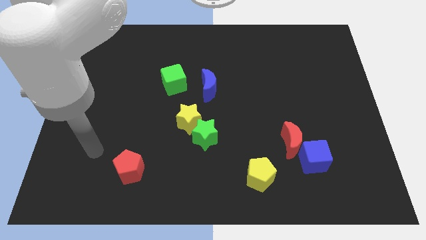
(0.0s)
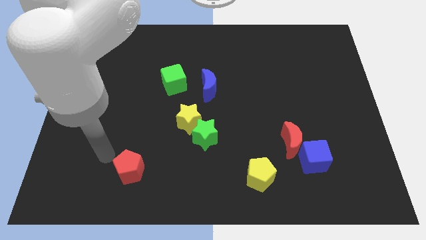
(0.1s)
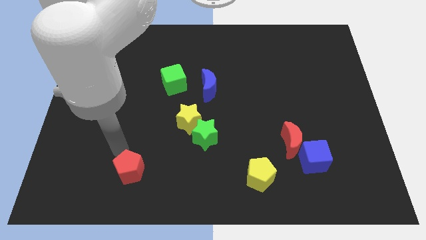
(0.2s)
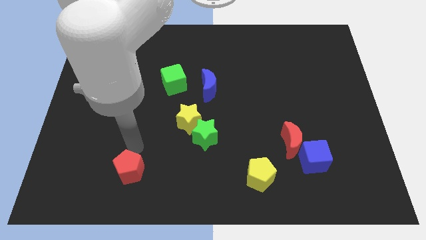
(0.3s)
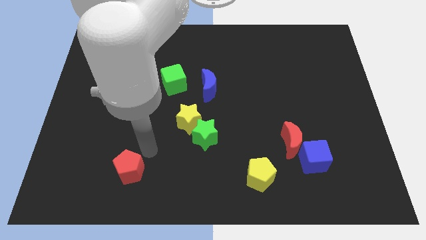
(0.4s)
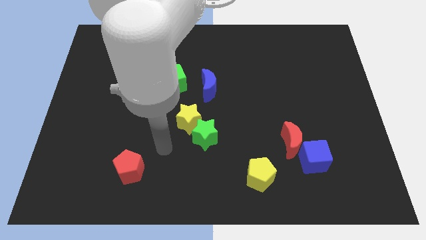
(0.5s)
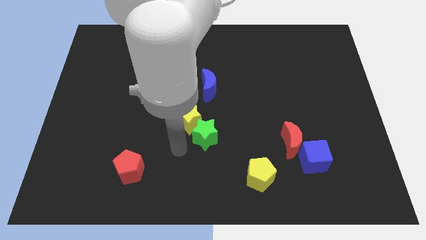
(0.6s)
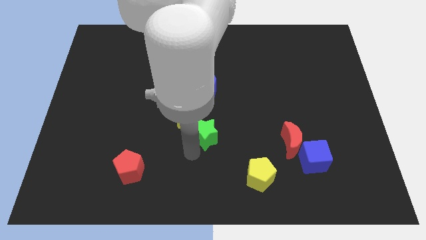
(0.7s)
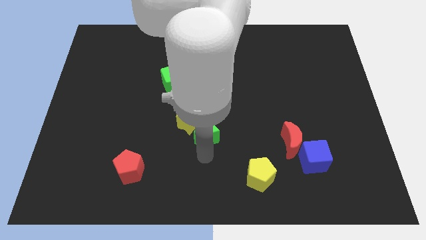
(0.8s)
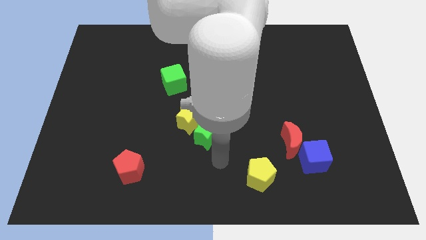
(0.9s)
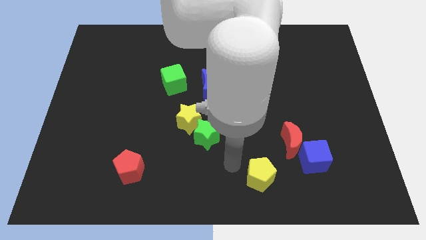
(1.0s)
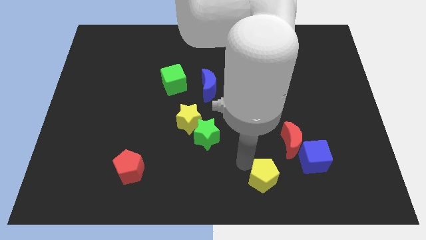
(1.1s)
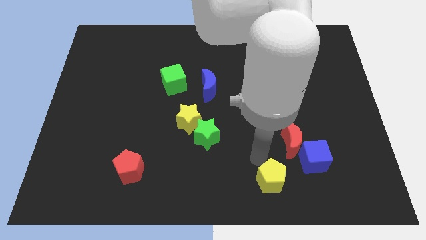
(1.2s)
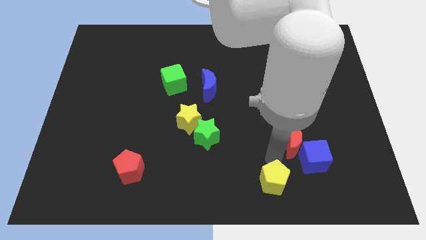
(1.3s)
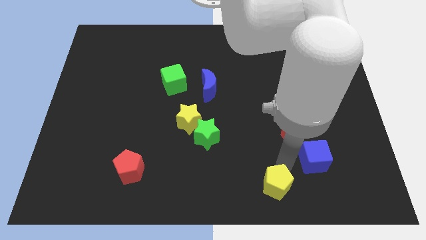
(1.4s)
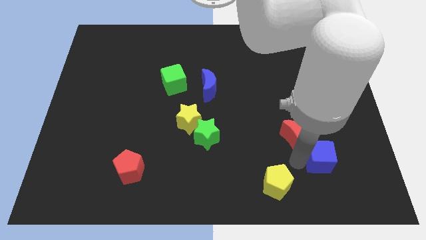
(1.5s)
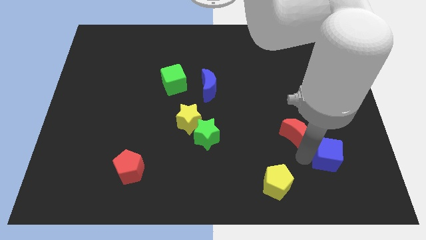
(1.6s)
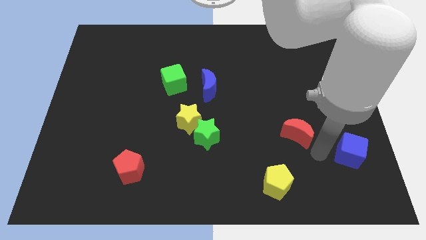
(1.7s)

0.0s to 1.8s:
separate the red moon from the blue cube

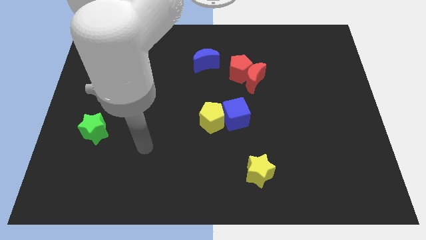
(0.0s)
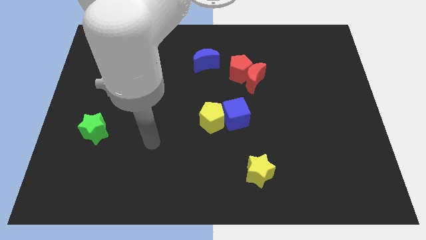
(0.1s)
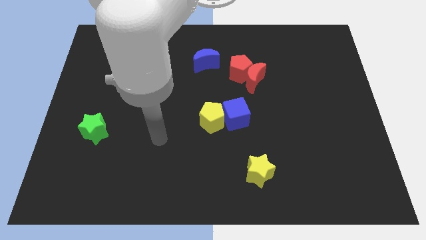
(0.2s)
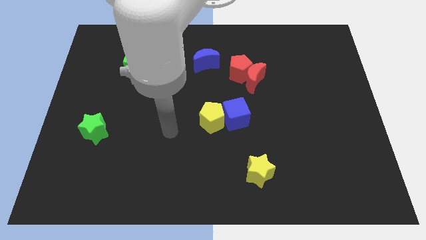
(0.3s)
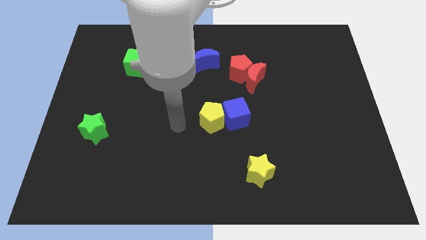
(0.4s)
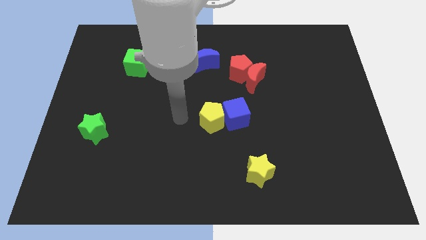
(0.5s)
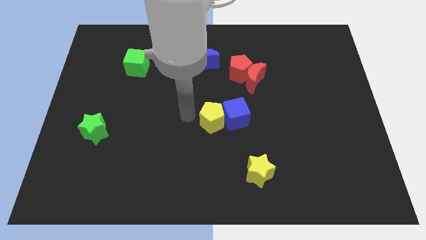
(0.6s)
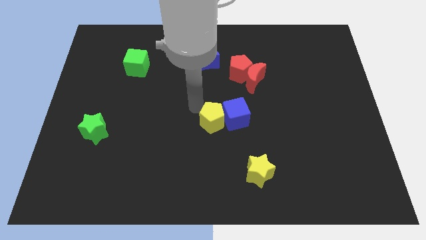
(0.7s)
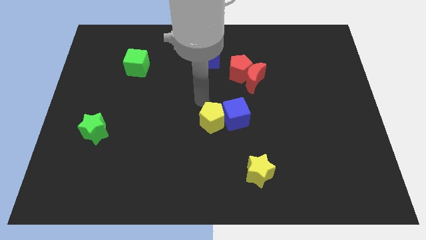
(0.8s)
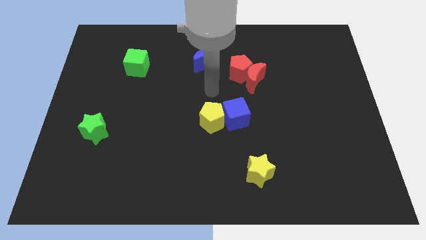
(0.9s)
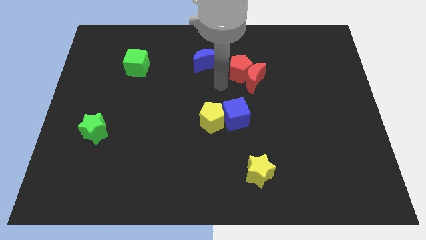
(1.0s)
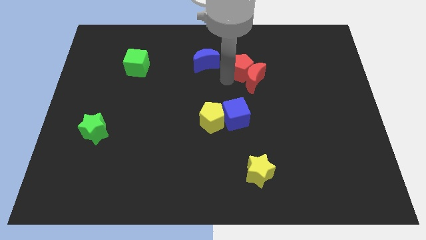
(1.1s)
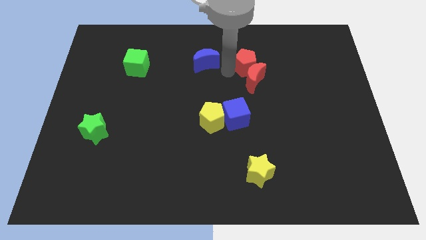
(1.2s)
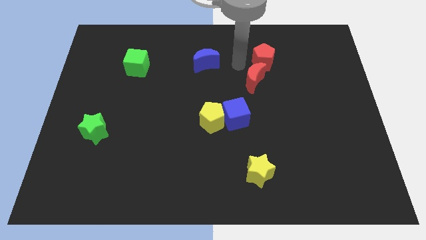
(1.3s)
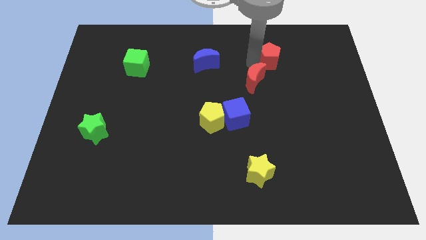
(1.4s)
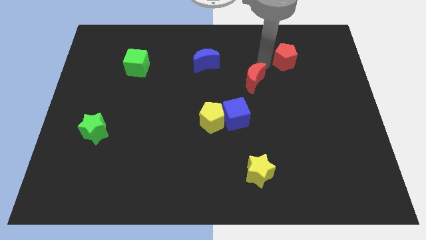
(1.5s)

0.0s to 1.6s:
pull the red moon apart from the red pentagon

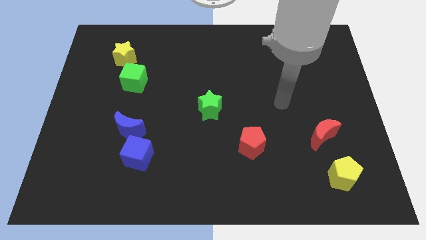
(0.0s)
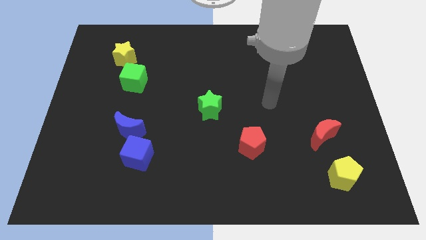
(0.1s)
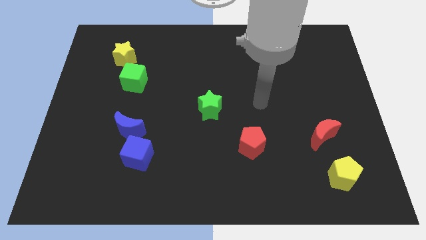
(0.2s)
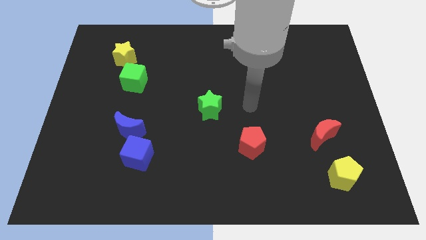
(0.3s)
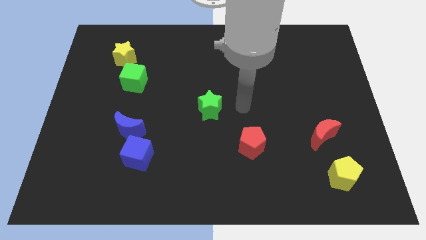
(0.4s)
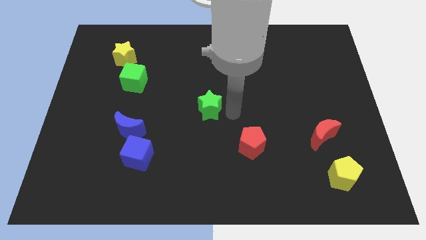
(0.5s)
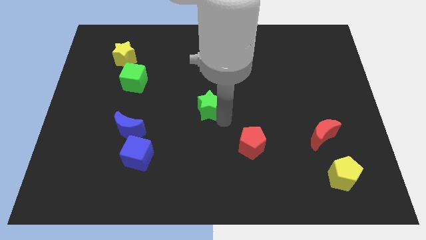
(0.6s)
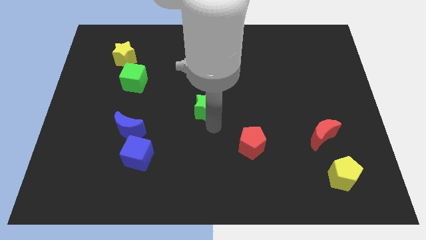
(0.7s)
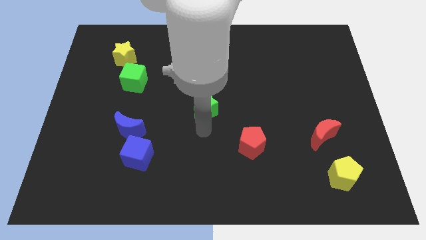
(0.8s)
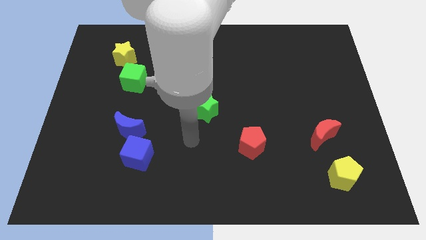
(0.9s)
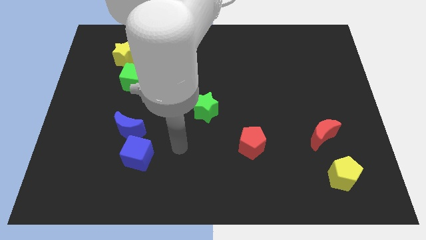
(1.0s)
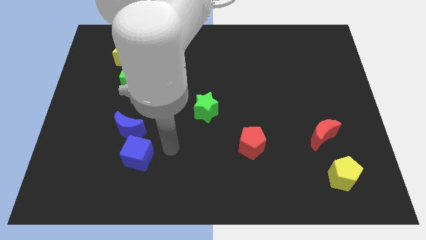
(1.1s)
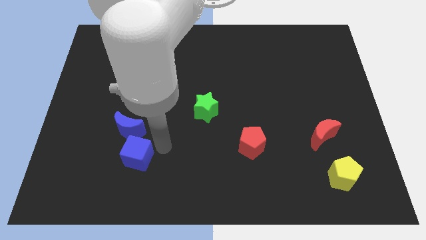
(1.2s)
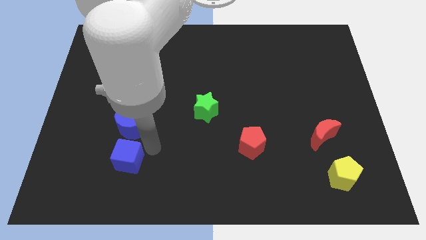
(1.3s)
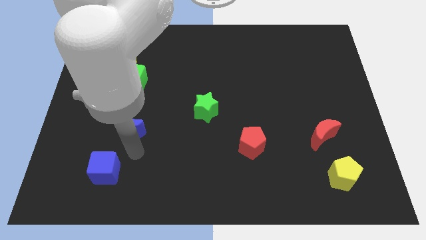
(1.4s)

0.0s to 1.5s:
move the blue moon away from the blue cube

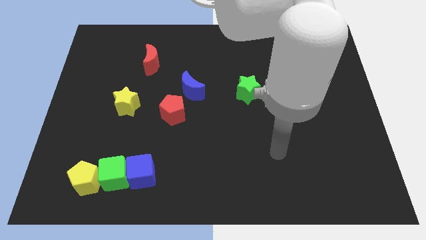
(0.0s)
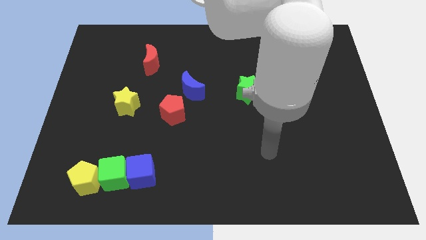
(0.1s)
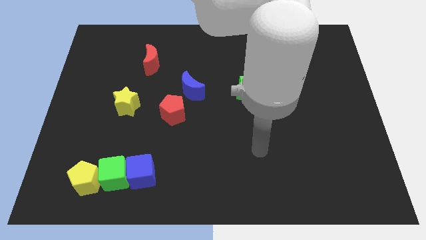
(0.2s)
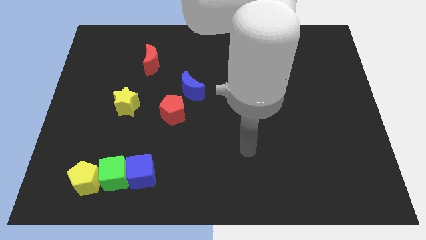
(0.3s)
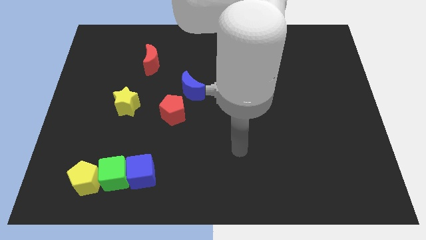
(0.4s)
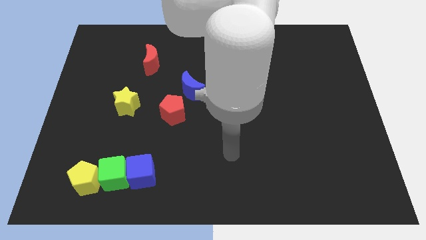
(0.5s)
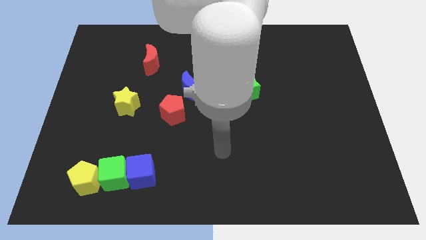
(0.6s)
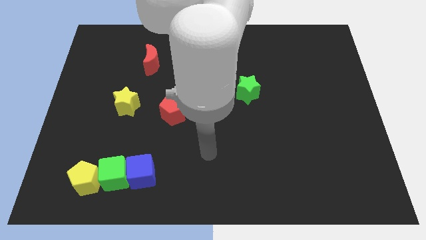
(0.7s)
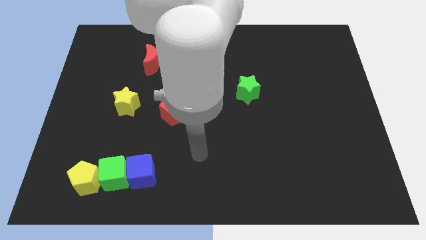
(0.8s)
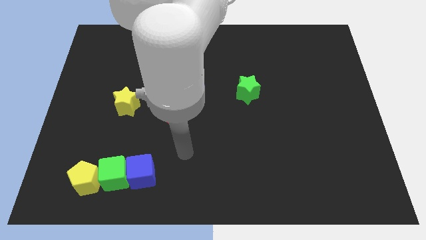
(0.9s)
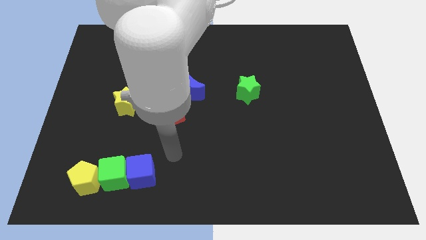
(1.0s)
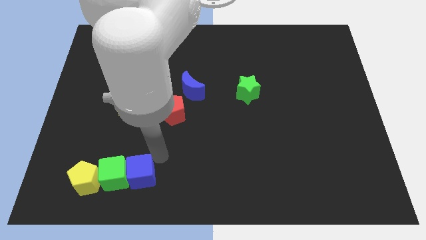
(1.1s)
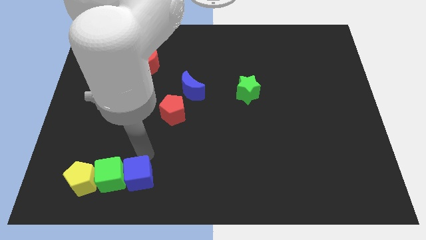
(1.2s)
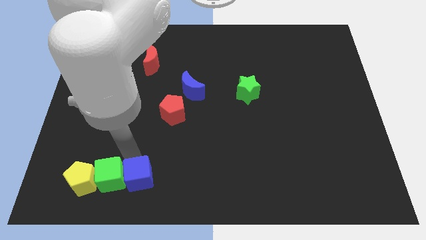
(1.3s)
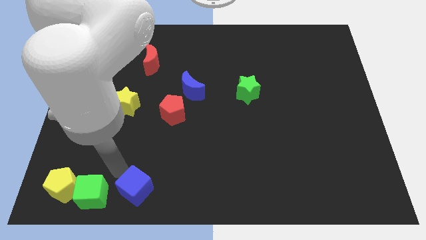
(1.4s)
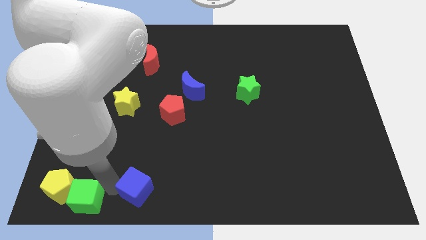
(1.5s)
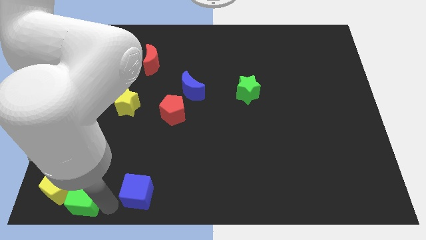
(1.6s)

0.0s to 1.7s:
move the blue cube away from the green cube

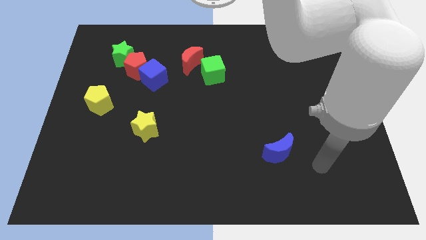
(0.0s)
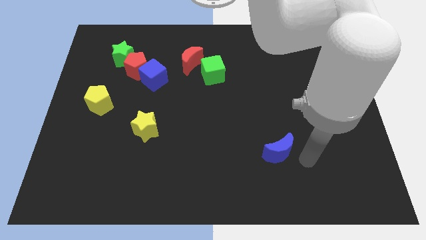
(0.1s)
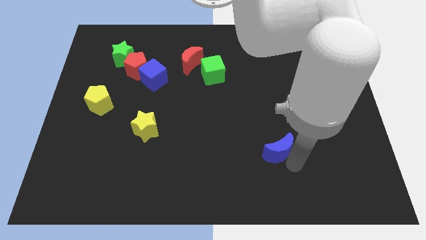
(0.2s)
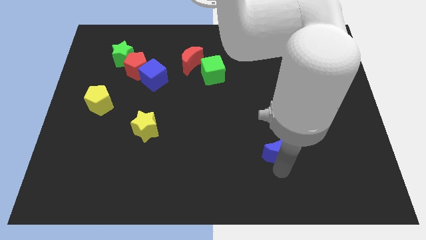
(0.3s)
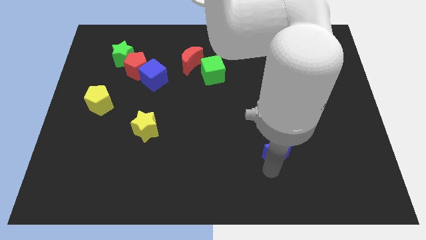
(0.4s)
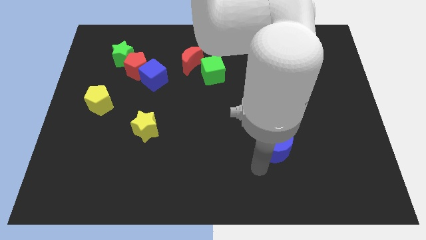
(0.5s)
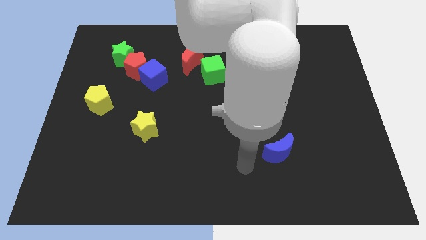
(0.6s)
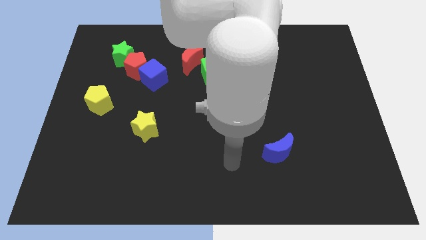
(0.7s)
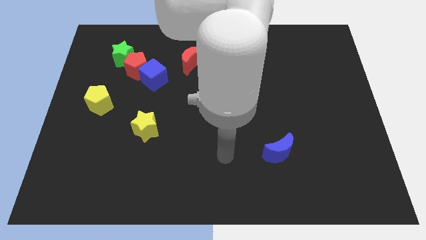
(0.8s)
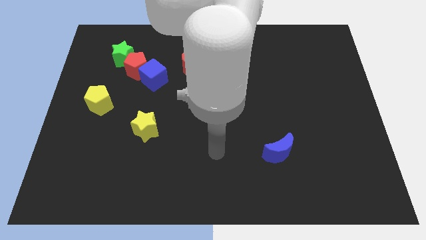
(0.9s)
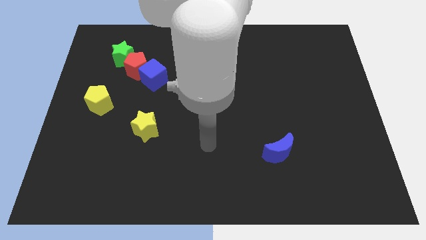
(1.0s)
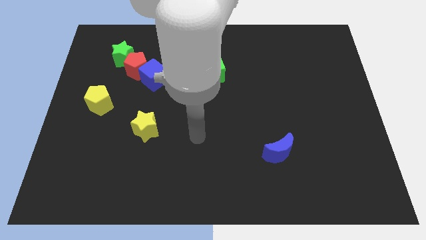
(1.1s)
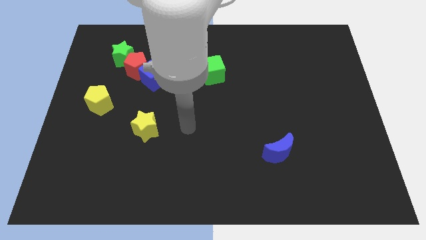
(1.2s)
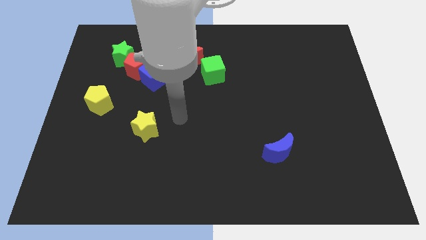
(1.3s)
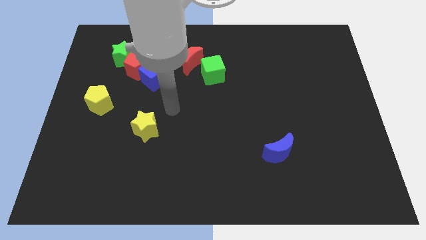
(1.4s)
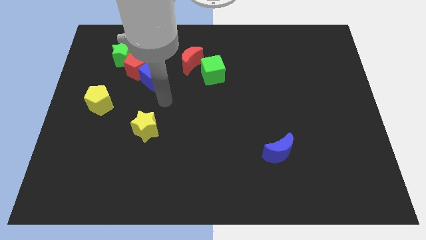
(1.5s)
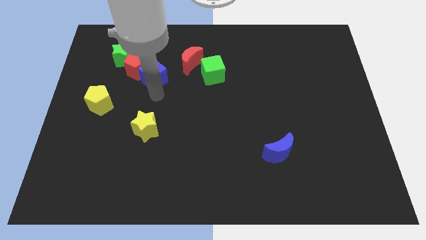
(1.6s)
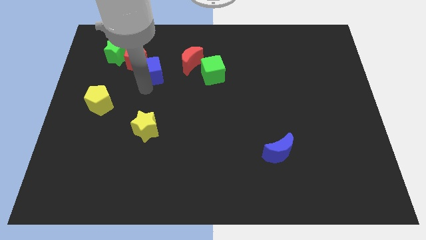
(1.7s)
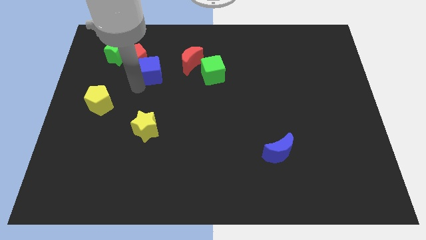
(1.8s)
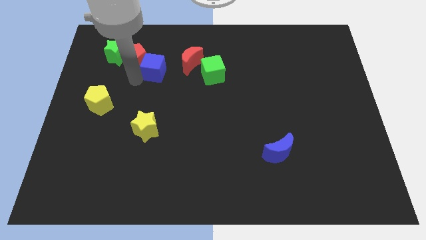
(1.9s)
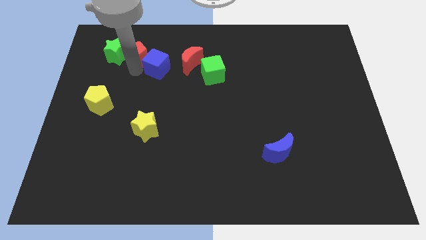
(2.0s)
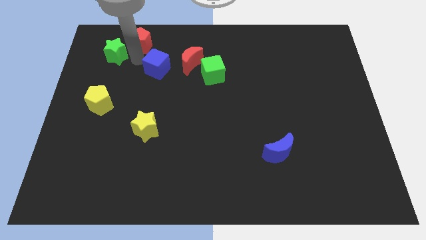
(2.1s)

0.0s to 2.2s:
separate the blue cube from the red pentagon

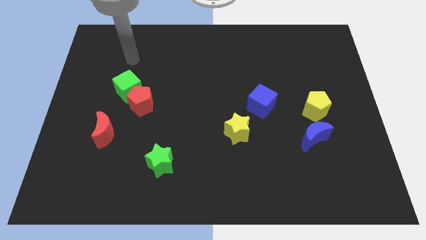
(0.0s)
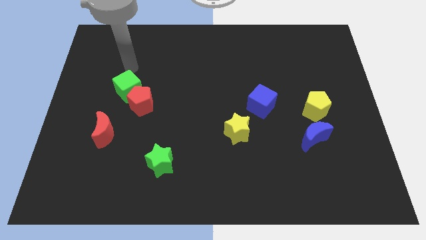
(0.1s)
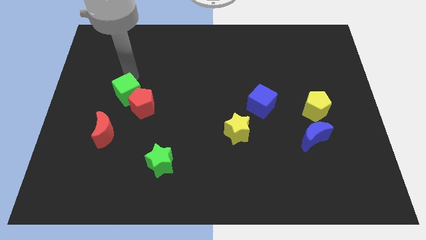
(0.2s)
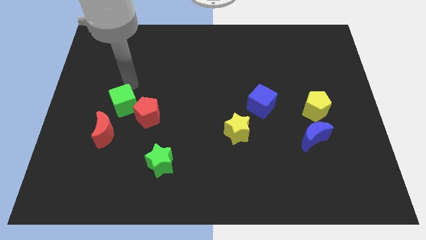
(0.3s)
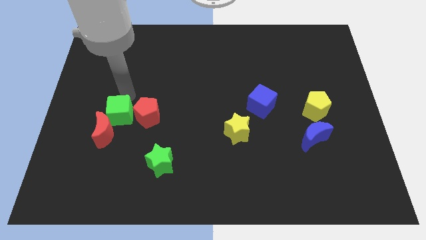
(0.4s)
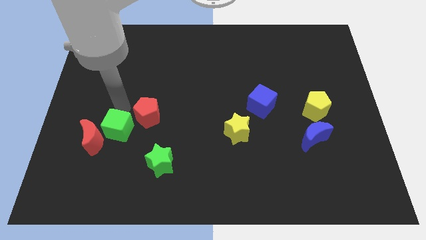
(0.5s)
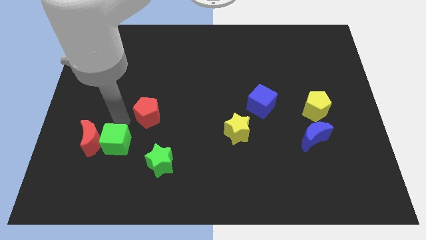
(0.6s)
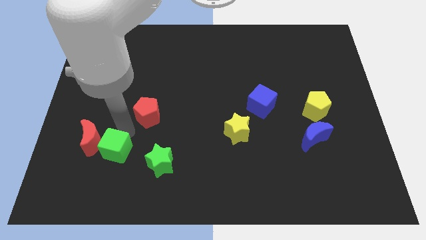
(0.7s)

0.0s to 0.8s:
pull the red pentagon apart from the green cube
